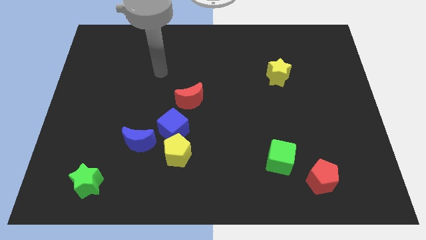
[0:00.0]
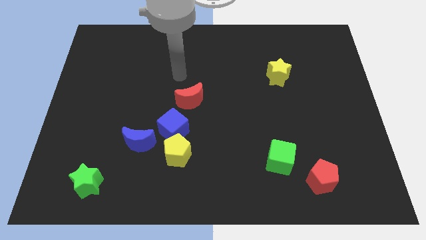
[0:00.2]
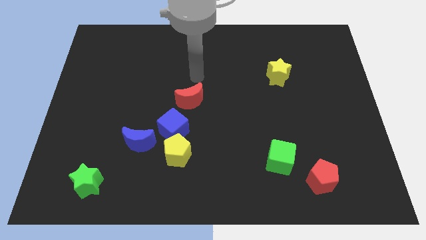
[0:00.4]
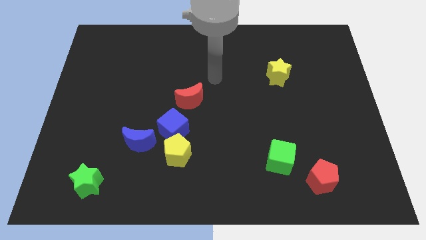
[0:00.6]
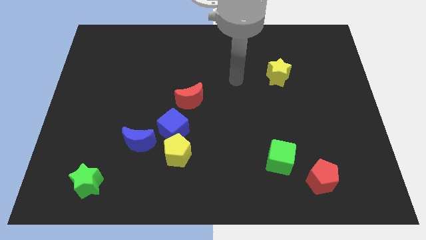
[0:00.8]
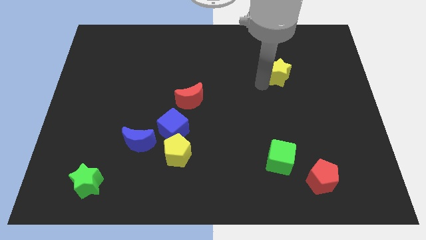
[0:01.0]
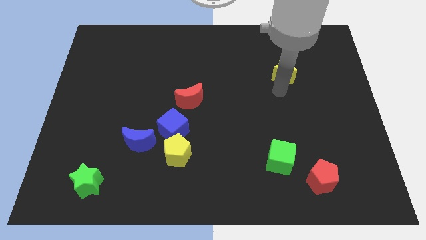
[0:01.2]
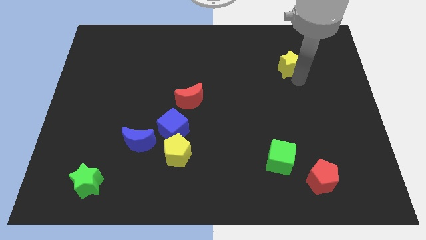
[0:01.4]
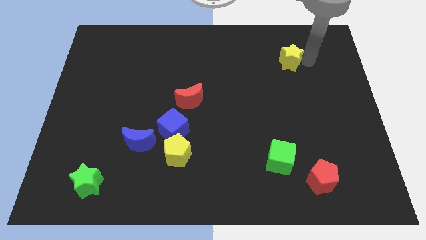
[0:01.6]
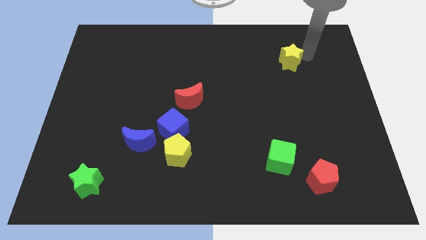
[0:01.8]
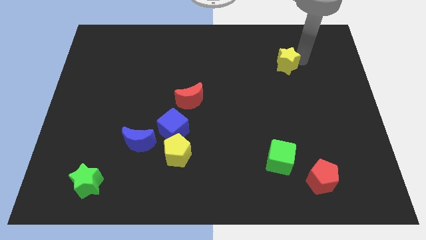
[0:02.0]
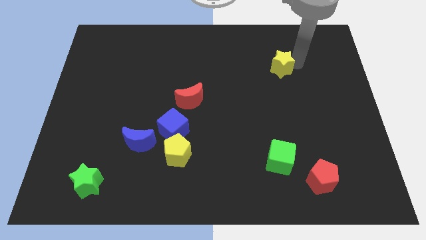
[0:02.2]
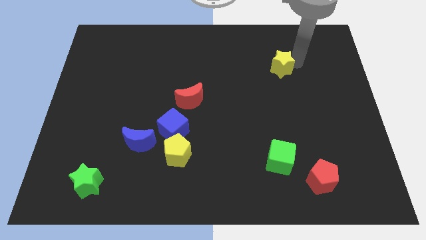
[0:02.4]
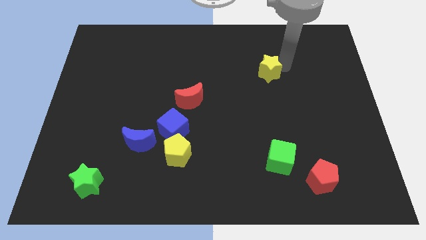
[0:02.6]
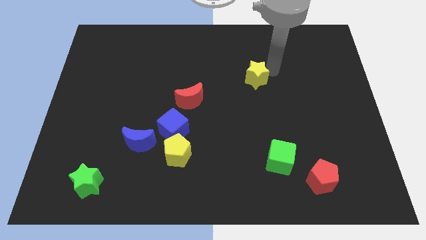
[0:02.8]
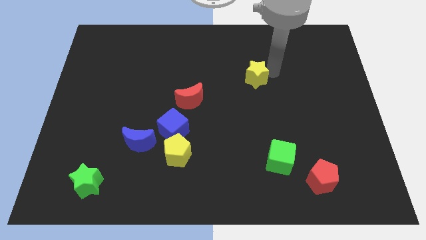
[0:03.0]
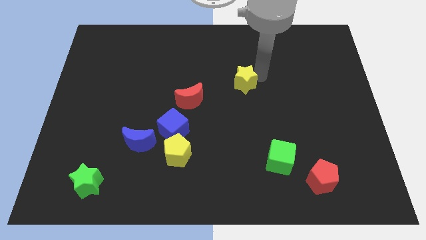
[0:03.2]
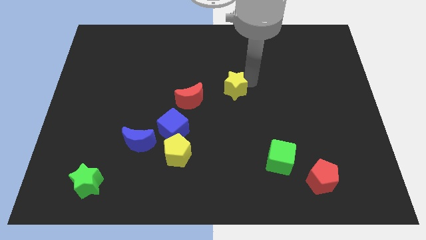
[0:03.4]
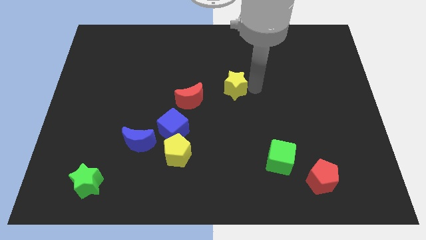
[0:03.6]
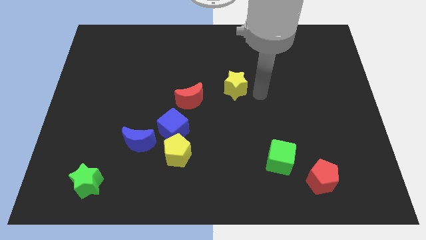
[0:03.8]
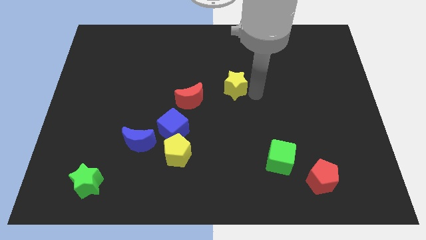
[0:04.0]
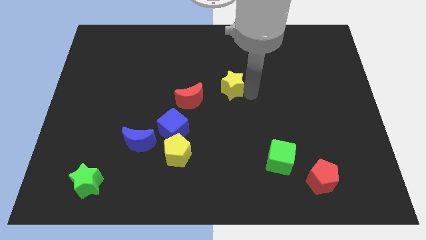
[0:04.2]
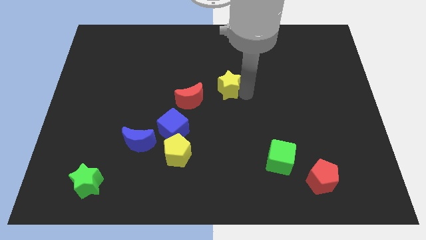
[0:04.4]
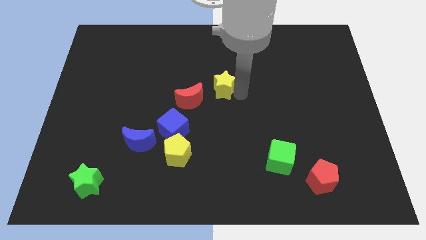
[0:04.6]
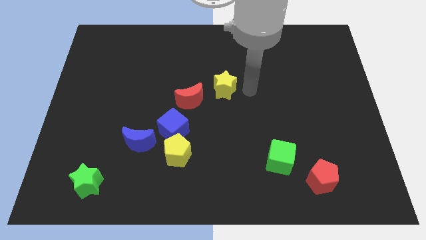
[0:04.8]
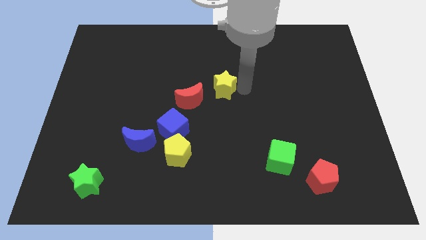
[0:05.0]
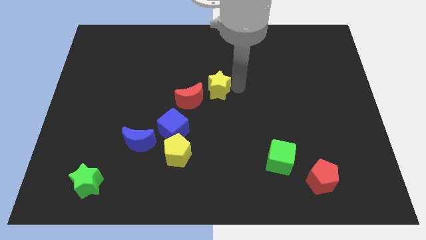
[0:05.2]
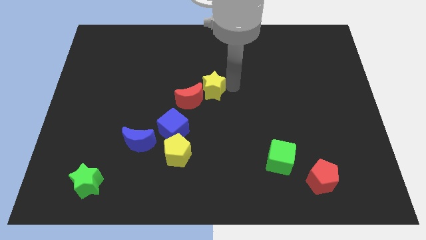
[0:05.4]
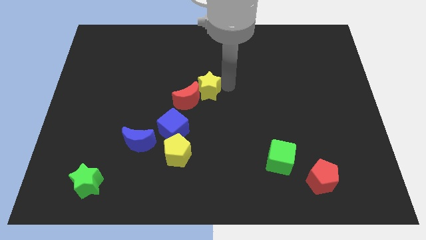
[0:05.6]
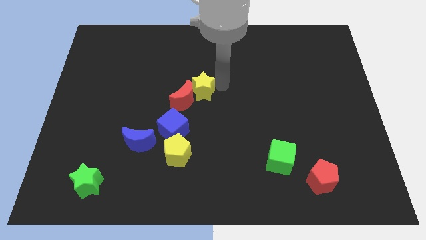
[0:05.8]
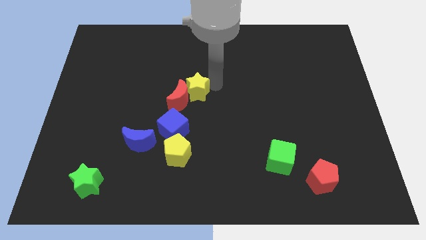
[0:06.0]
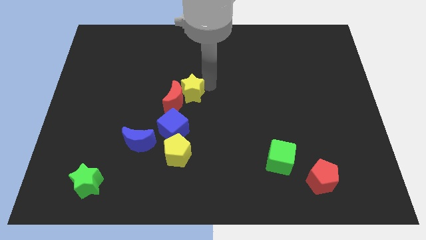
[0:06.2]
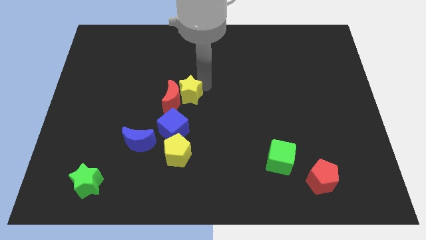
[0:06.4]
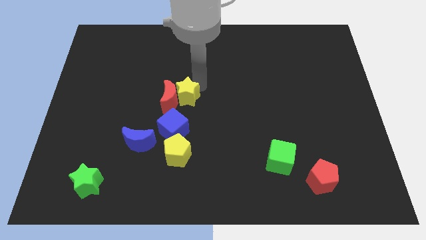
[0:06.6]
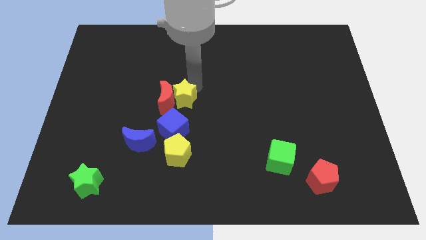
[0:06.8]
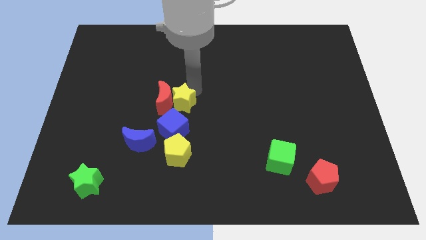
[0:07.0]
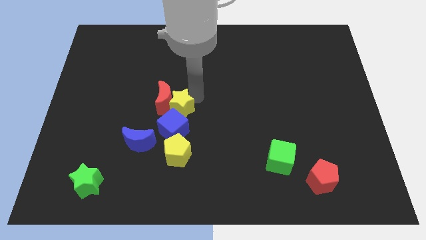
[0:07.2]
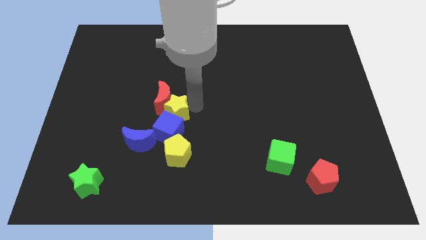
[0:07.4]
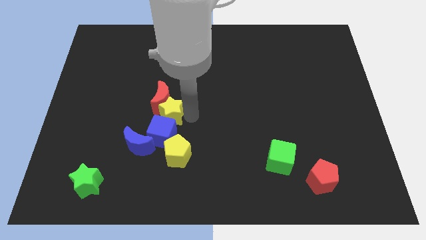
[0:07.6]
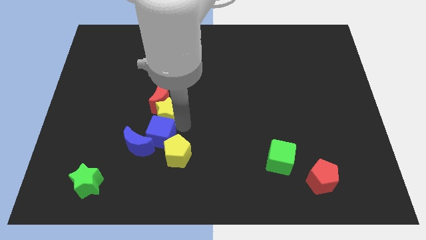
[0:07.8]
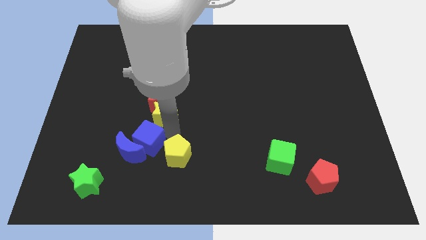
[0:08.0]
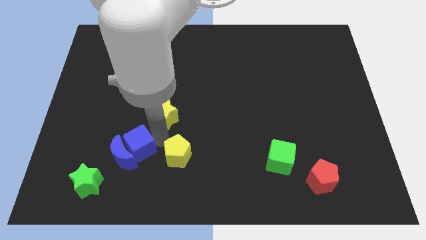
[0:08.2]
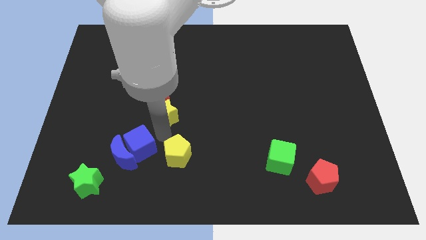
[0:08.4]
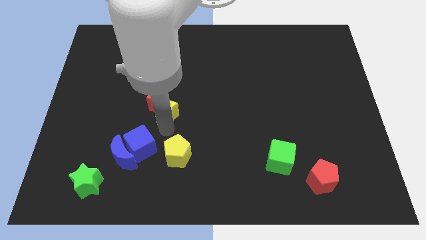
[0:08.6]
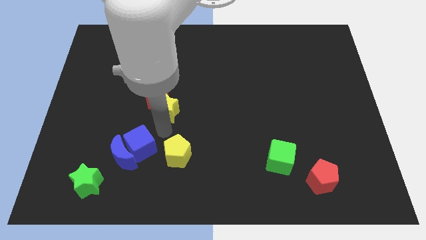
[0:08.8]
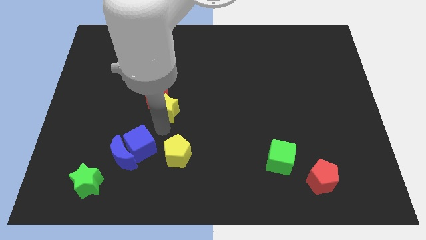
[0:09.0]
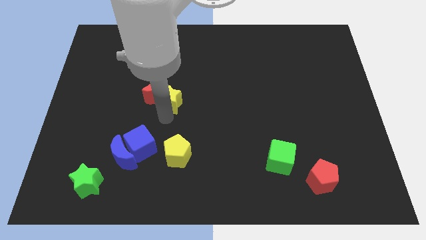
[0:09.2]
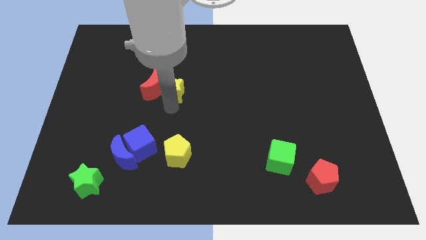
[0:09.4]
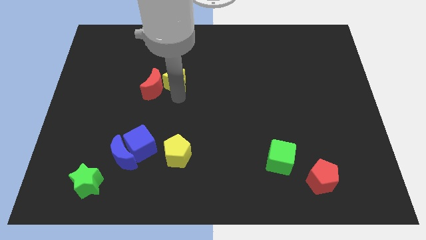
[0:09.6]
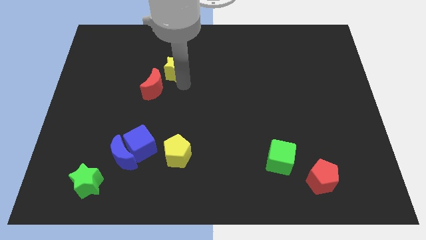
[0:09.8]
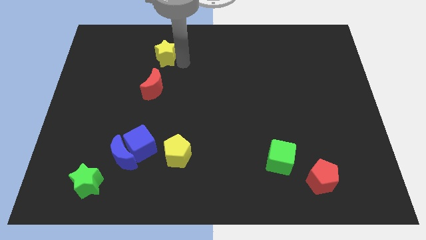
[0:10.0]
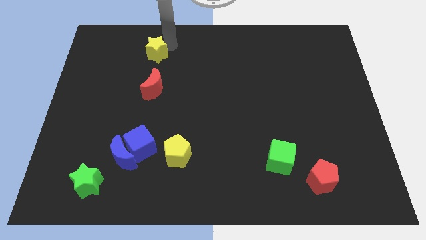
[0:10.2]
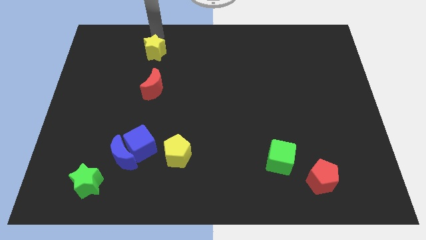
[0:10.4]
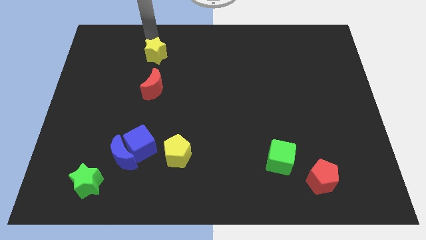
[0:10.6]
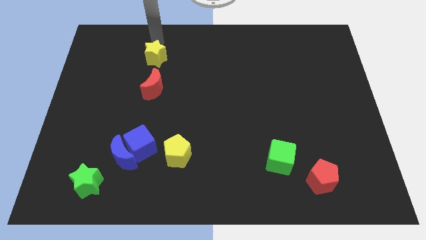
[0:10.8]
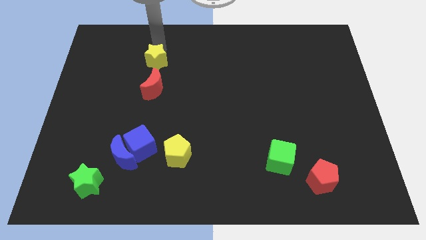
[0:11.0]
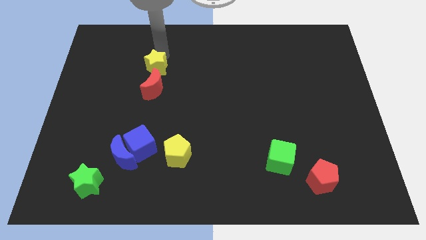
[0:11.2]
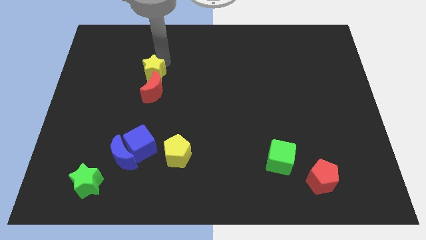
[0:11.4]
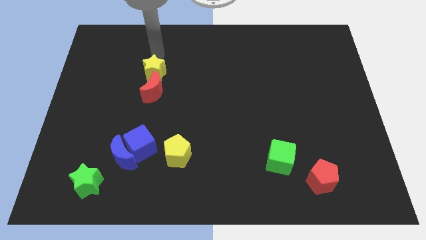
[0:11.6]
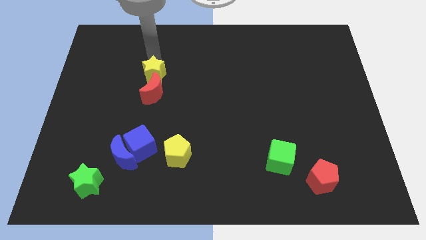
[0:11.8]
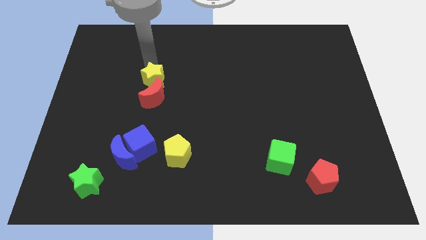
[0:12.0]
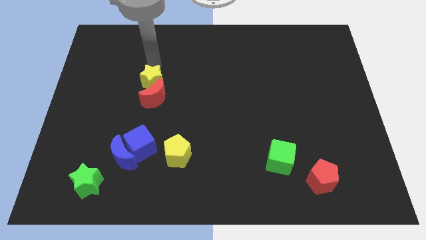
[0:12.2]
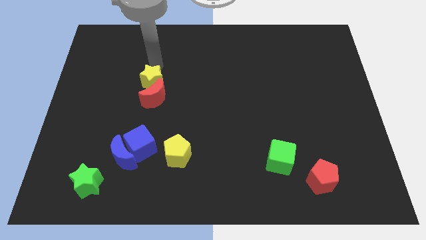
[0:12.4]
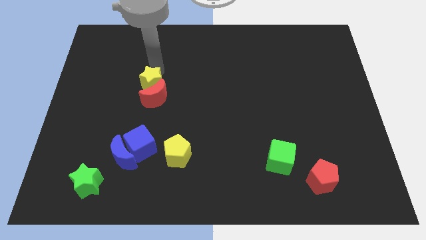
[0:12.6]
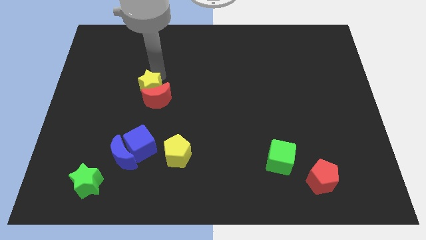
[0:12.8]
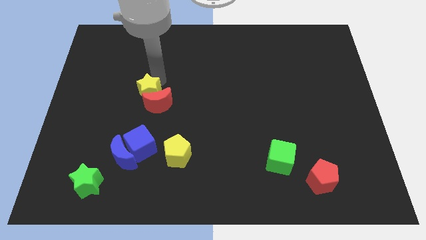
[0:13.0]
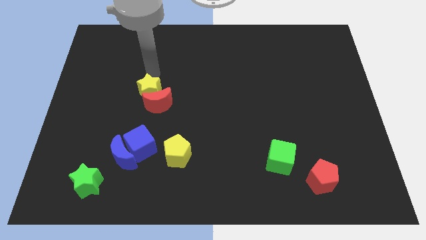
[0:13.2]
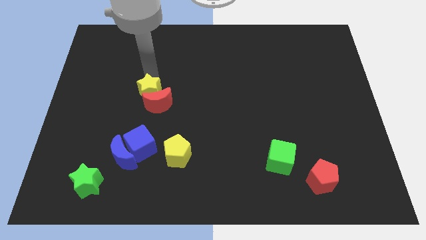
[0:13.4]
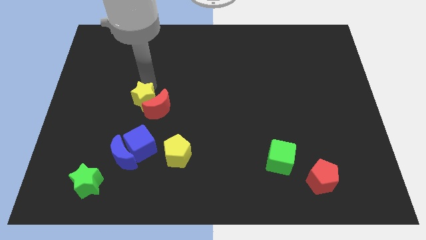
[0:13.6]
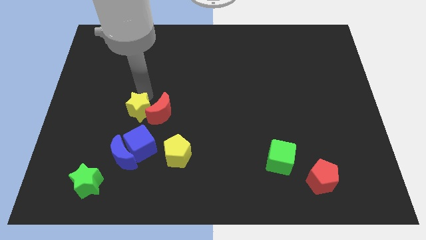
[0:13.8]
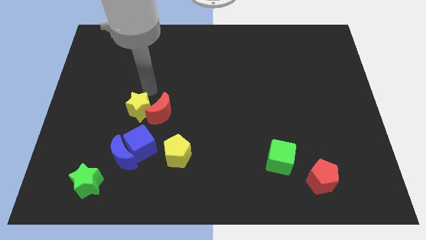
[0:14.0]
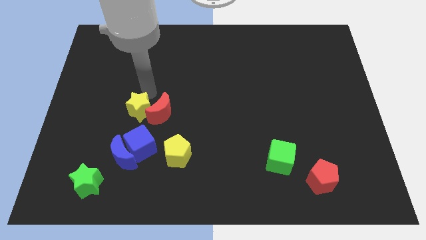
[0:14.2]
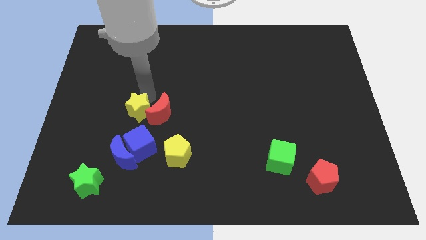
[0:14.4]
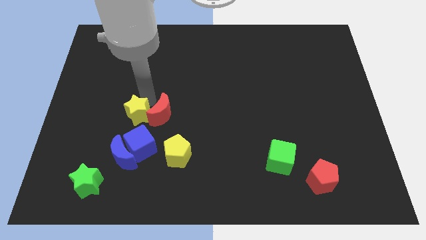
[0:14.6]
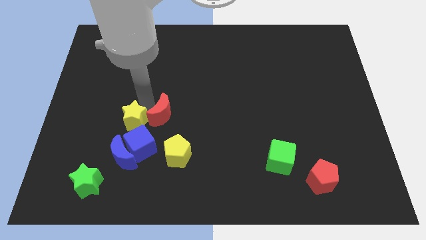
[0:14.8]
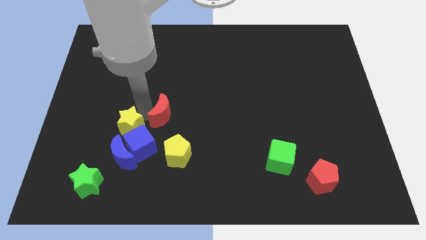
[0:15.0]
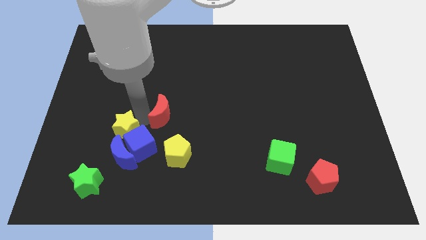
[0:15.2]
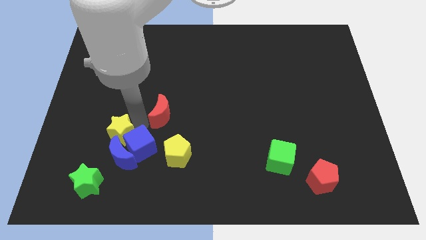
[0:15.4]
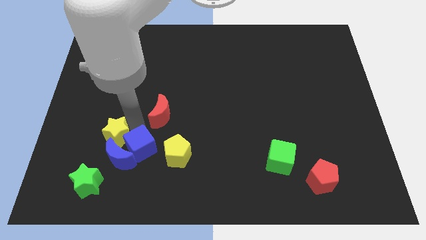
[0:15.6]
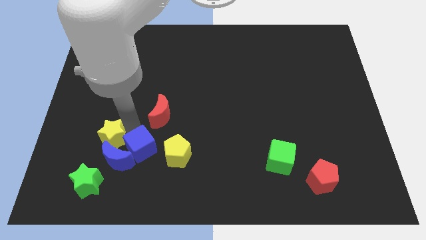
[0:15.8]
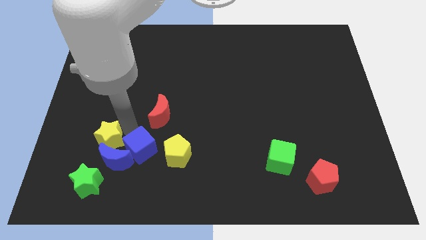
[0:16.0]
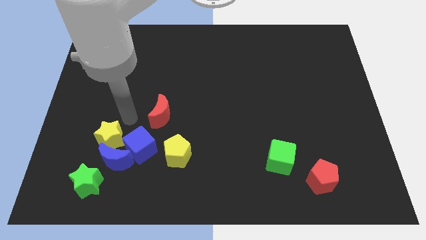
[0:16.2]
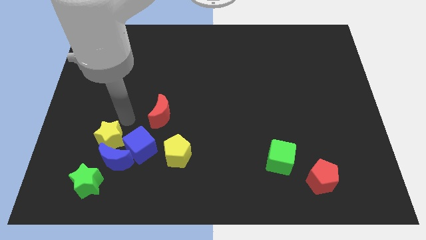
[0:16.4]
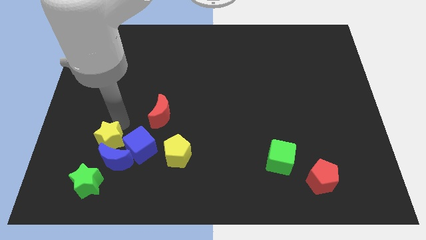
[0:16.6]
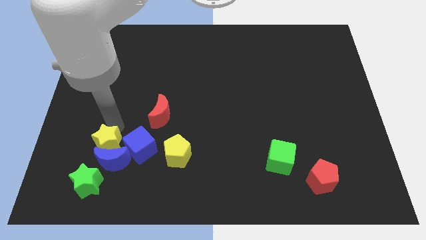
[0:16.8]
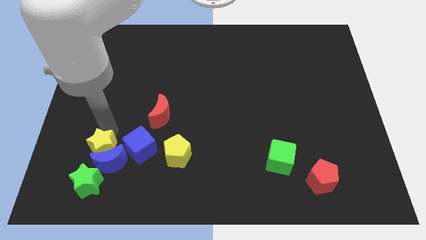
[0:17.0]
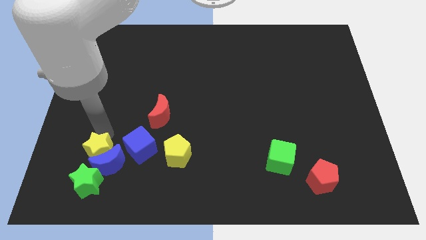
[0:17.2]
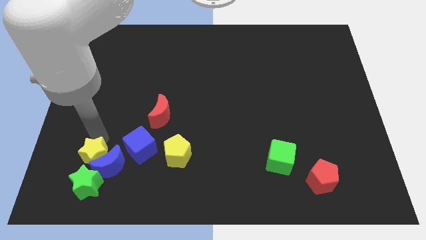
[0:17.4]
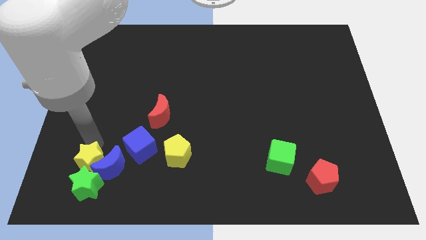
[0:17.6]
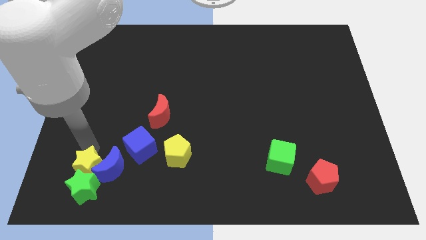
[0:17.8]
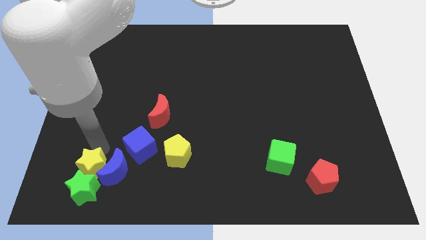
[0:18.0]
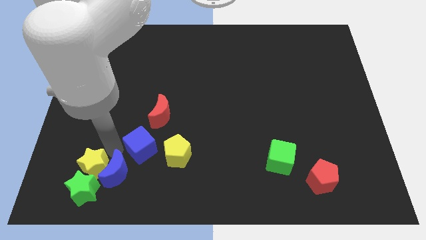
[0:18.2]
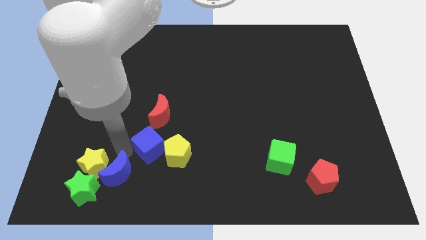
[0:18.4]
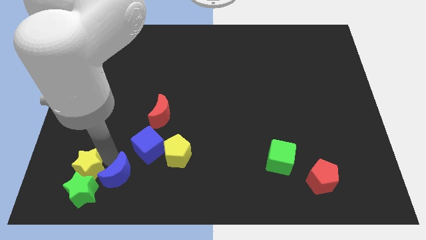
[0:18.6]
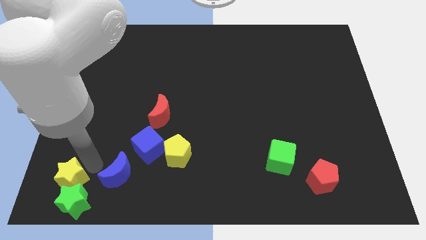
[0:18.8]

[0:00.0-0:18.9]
put the yellow star to the bottom left of the board
